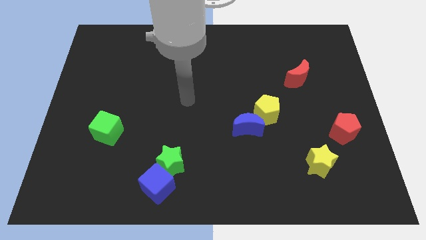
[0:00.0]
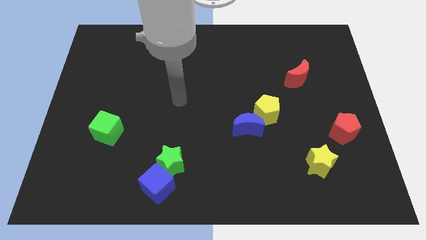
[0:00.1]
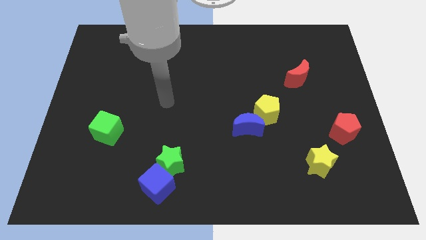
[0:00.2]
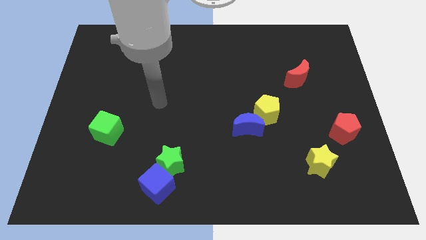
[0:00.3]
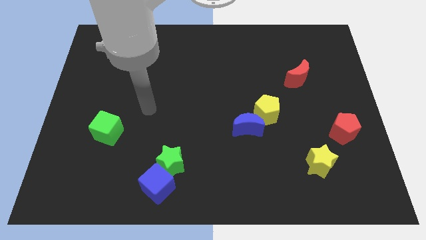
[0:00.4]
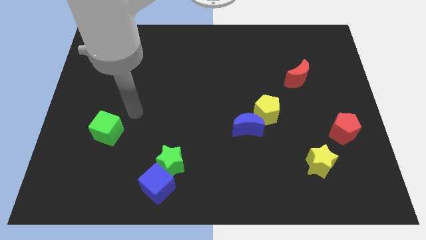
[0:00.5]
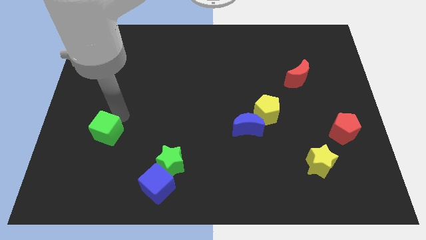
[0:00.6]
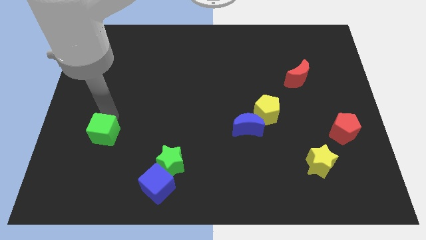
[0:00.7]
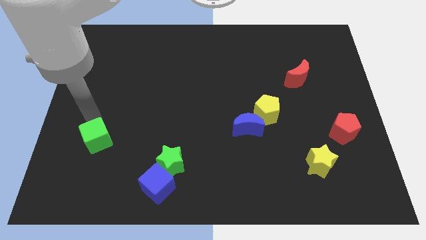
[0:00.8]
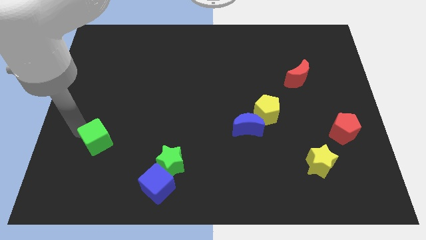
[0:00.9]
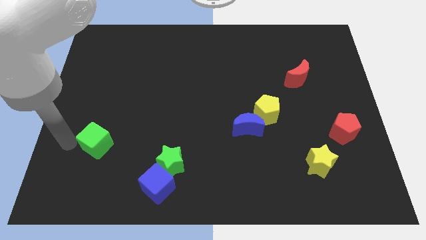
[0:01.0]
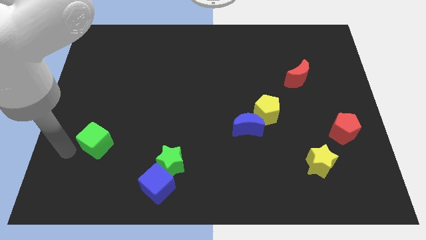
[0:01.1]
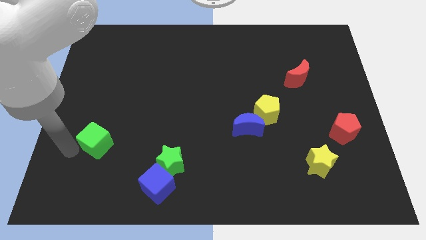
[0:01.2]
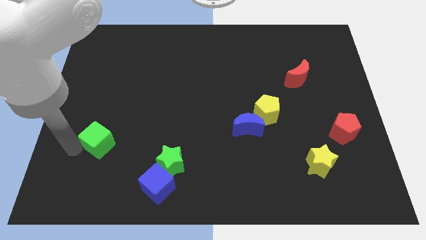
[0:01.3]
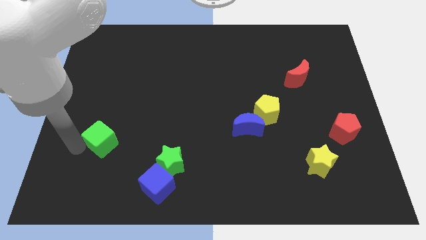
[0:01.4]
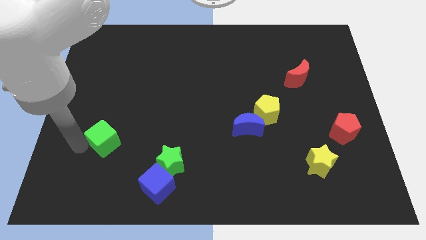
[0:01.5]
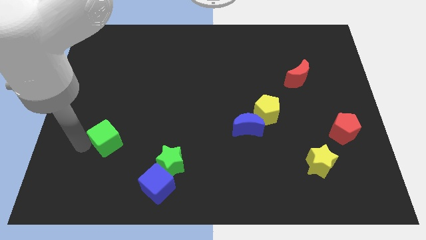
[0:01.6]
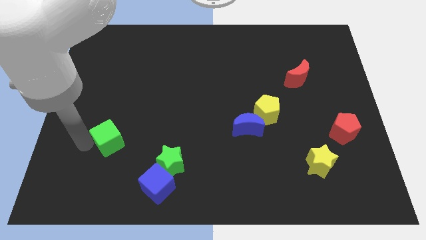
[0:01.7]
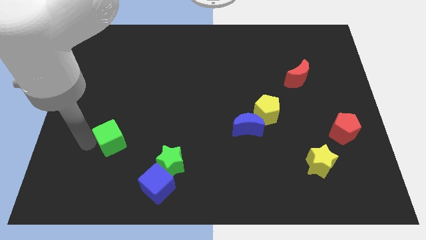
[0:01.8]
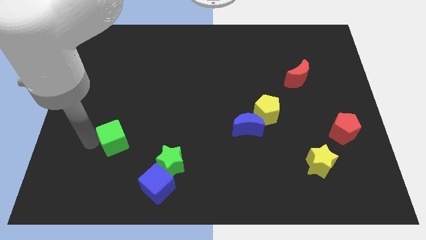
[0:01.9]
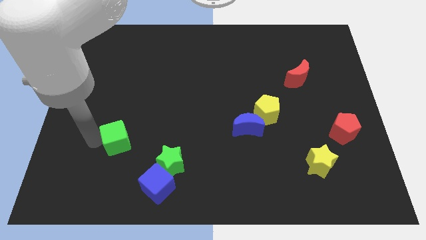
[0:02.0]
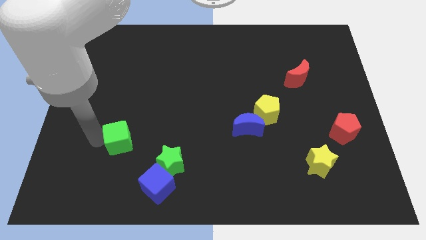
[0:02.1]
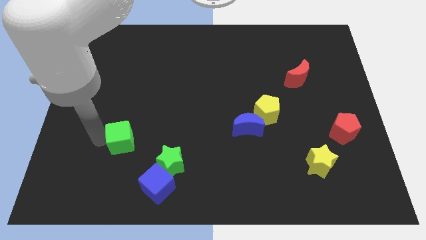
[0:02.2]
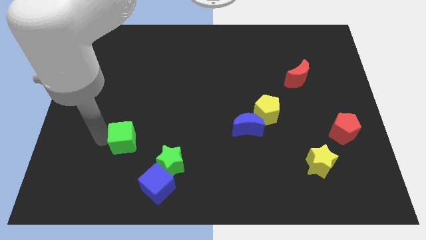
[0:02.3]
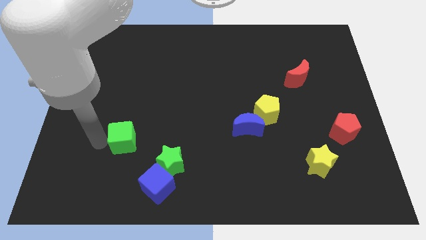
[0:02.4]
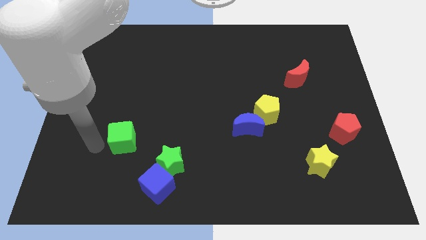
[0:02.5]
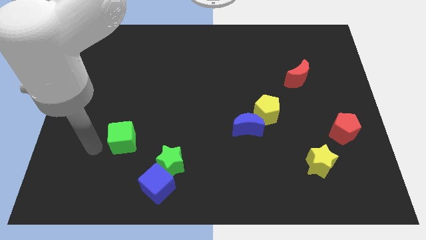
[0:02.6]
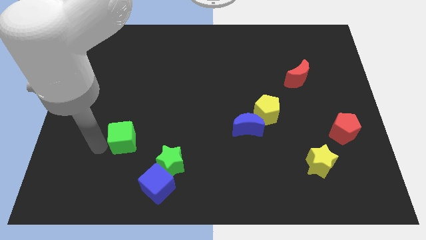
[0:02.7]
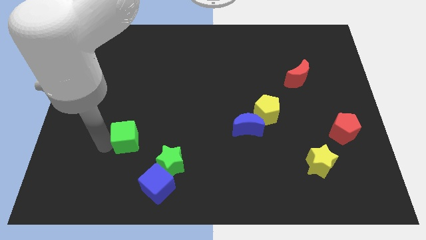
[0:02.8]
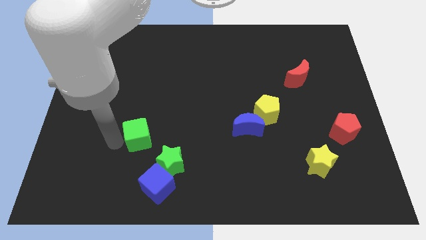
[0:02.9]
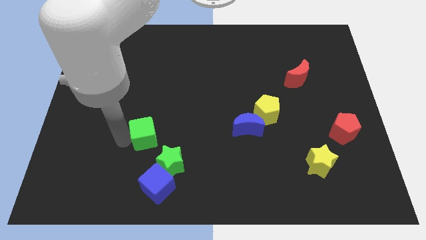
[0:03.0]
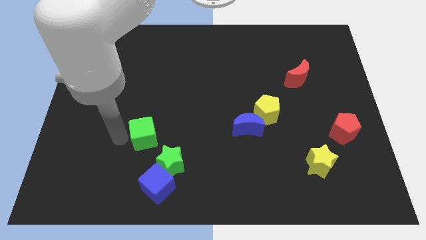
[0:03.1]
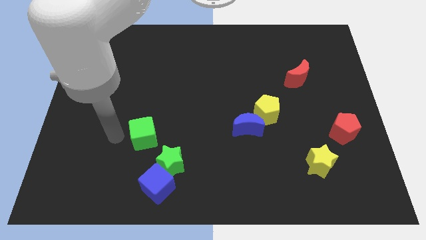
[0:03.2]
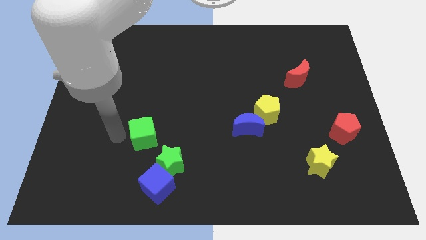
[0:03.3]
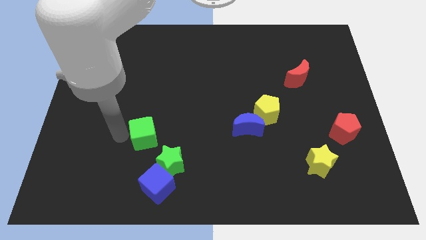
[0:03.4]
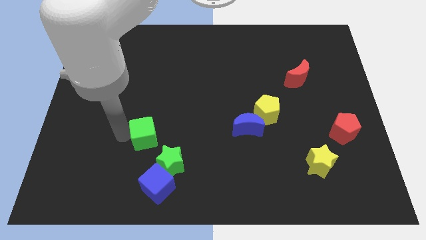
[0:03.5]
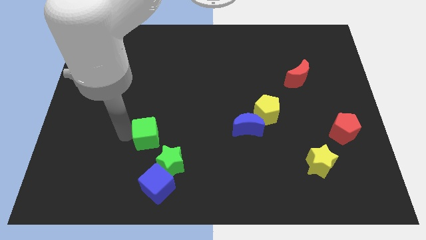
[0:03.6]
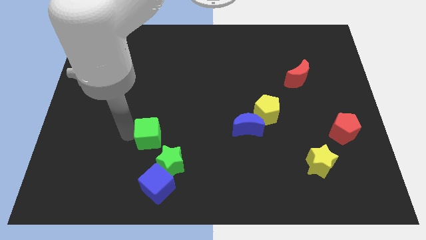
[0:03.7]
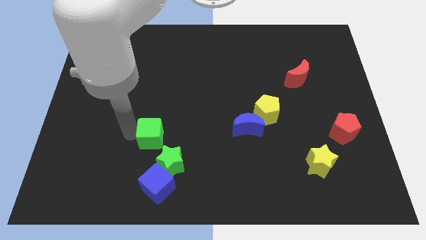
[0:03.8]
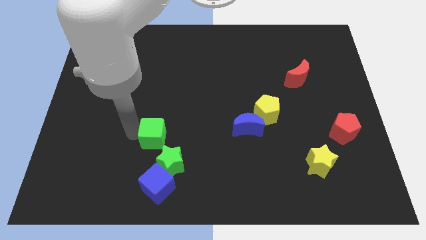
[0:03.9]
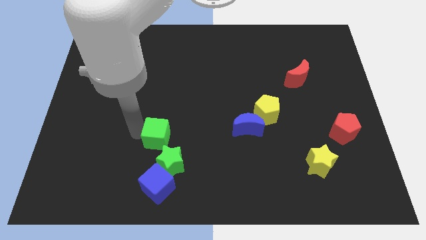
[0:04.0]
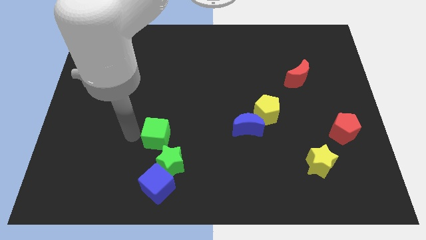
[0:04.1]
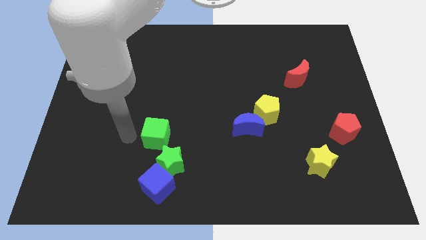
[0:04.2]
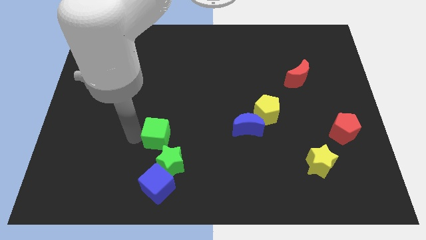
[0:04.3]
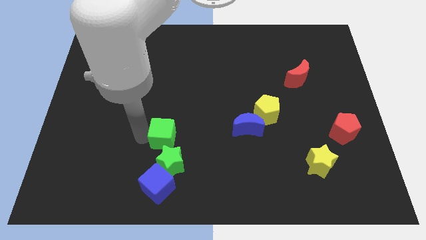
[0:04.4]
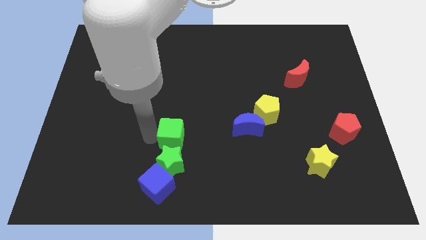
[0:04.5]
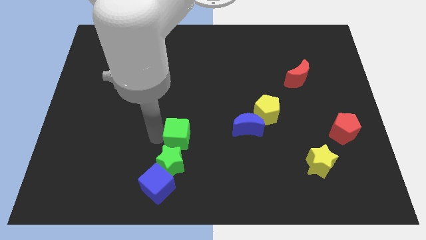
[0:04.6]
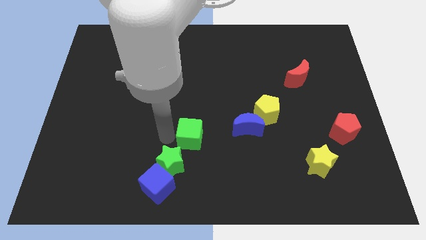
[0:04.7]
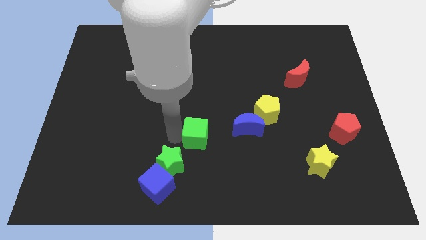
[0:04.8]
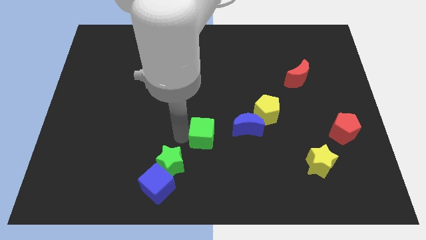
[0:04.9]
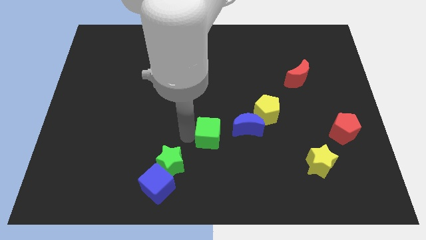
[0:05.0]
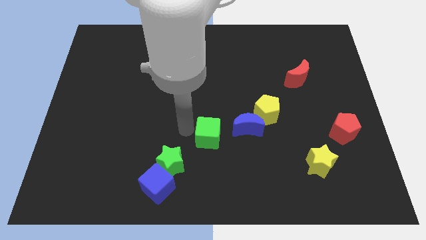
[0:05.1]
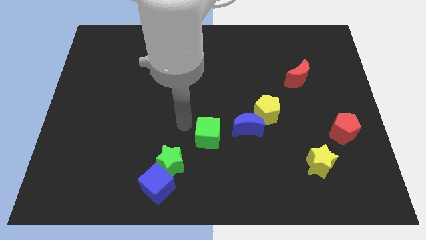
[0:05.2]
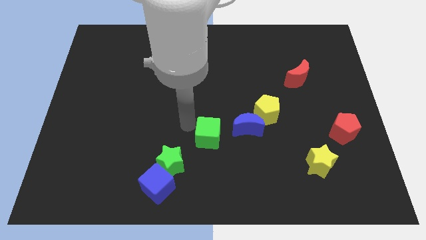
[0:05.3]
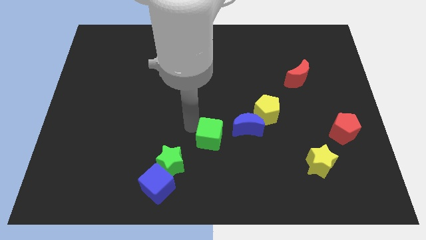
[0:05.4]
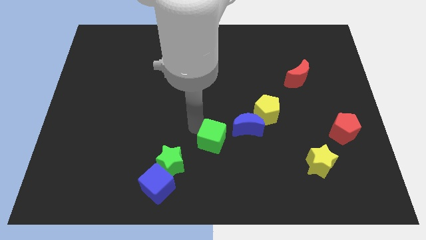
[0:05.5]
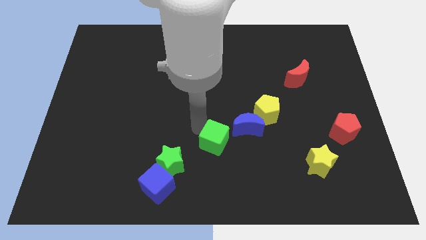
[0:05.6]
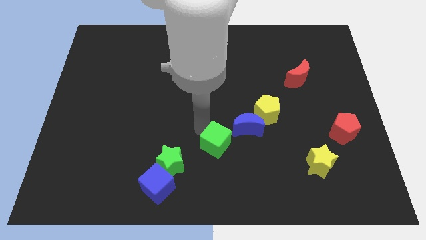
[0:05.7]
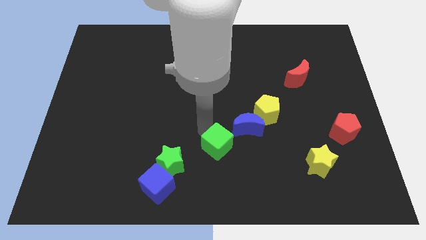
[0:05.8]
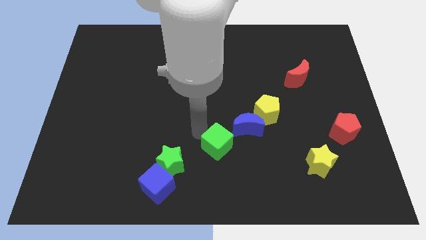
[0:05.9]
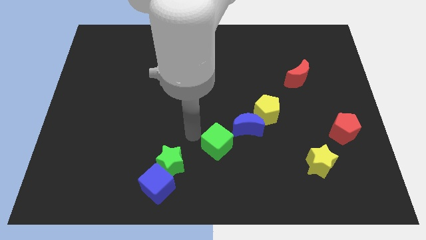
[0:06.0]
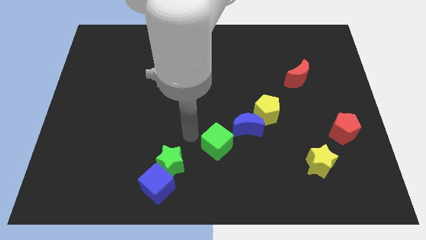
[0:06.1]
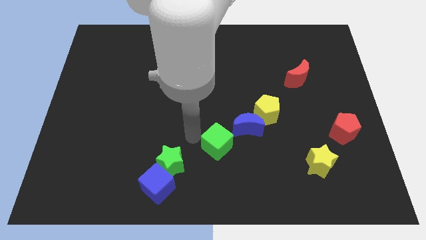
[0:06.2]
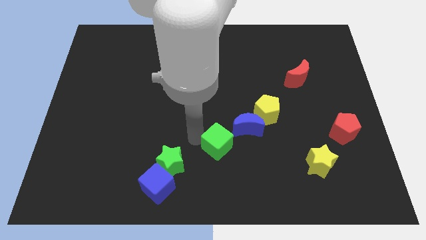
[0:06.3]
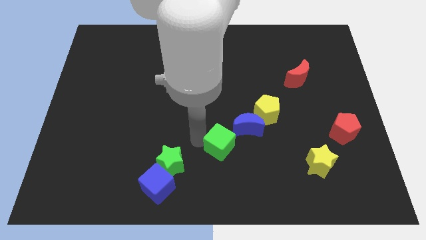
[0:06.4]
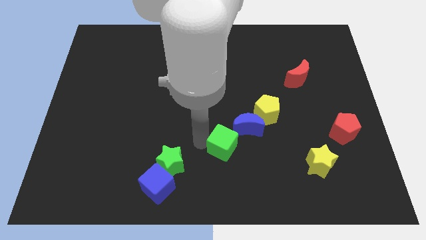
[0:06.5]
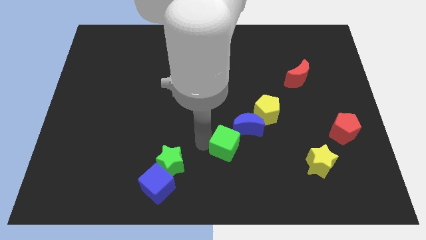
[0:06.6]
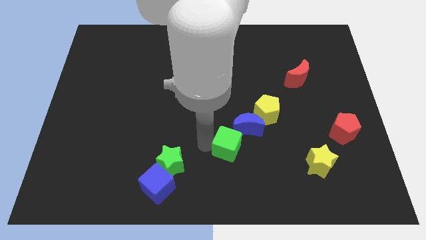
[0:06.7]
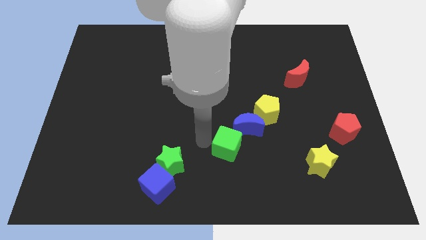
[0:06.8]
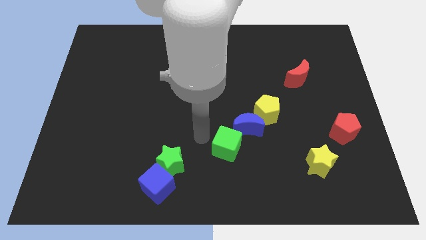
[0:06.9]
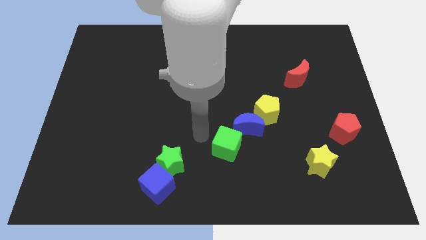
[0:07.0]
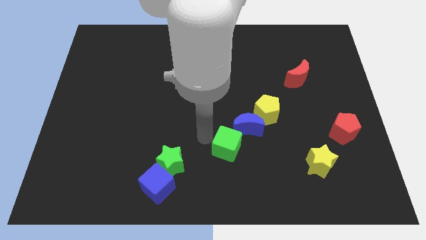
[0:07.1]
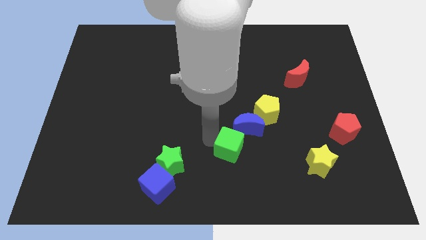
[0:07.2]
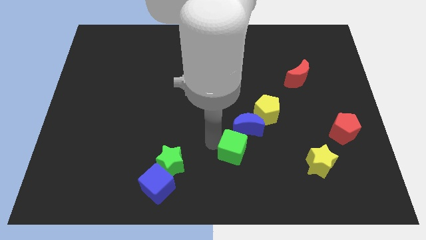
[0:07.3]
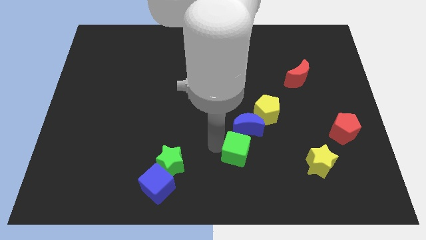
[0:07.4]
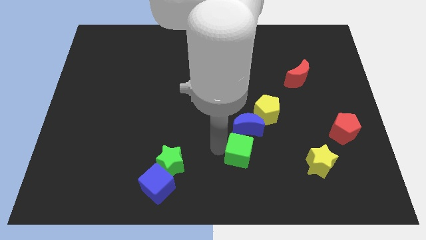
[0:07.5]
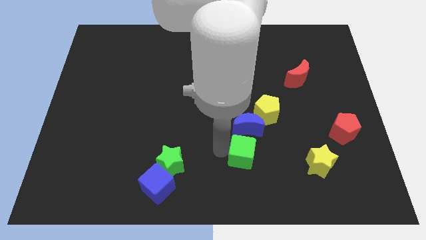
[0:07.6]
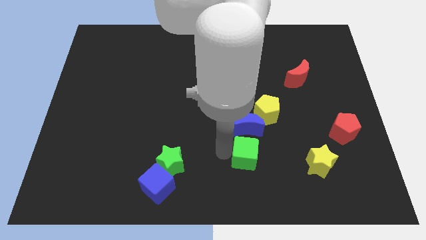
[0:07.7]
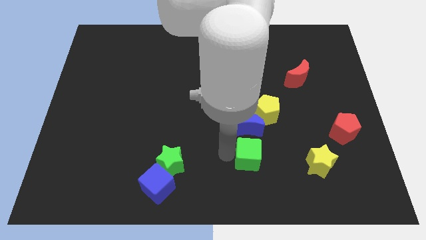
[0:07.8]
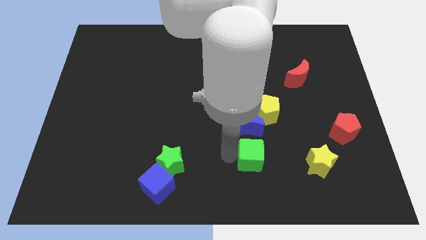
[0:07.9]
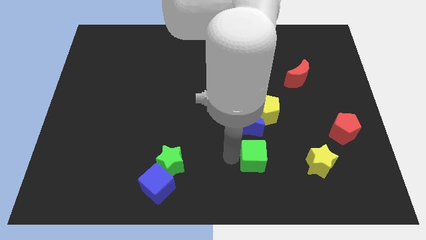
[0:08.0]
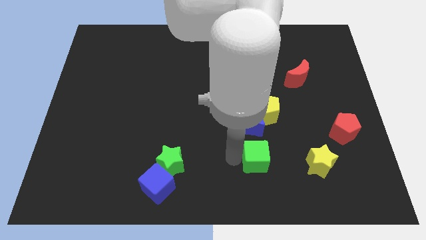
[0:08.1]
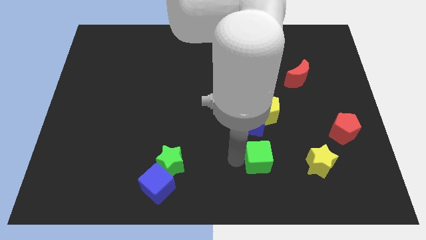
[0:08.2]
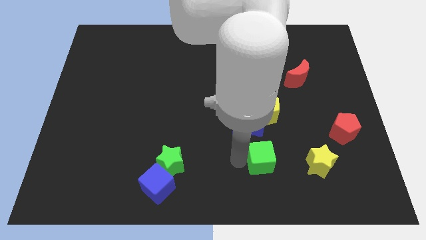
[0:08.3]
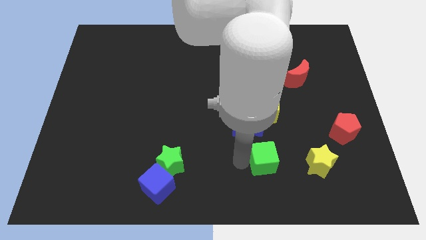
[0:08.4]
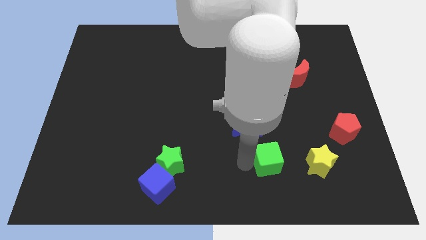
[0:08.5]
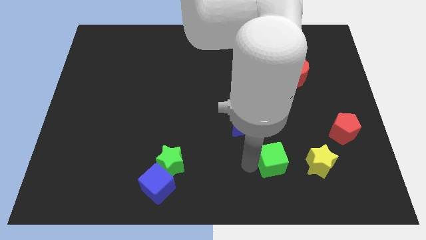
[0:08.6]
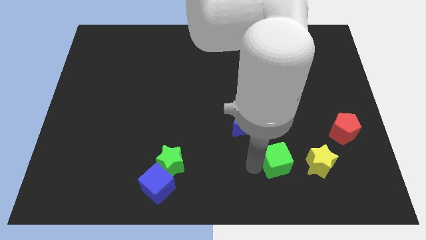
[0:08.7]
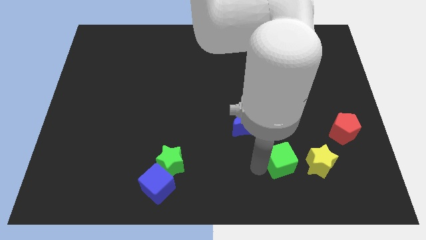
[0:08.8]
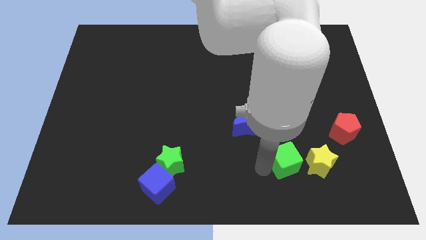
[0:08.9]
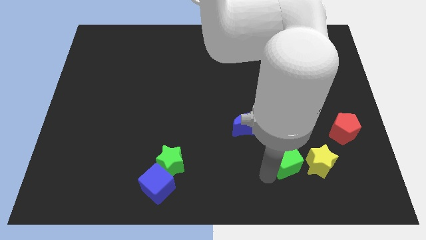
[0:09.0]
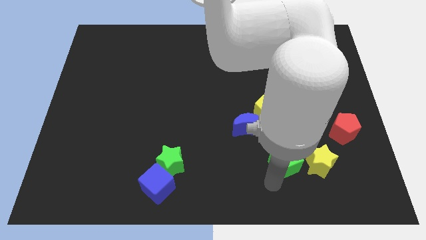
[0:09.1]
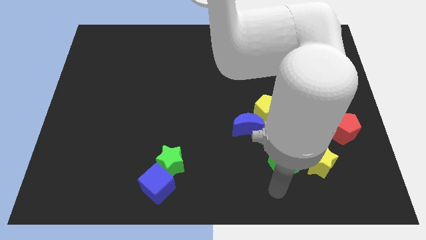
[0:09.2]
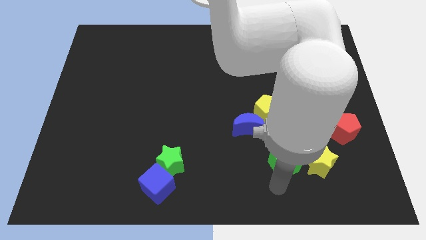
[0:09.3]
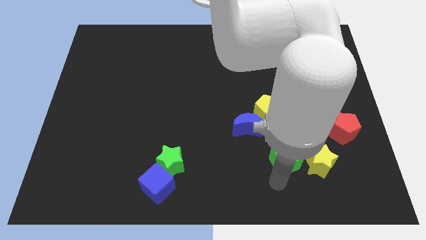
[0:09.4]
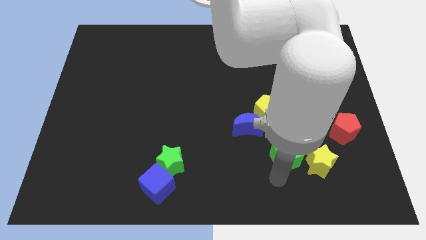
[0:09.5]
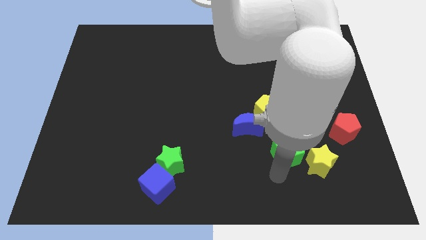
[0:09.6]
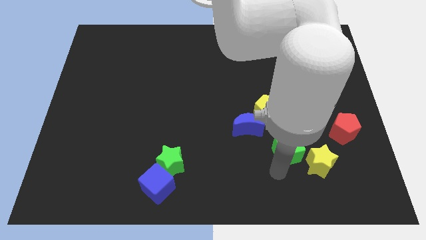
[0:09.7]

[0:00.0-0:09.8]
put the green cube to the bottom right side of the yellow pentagon
